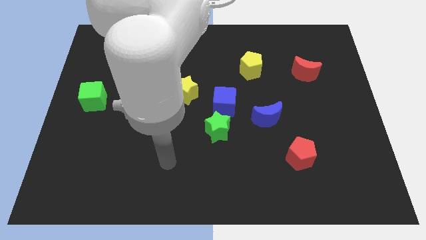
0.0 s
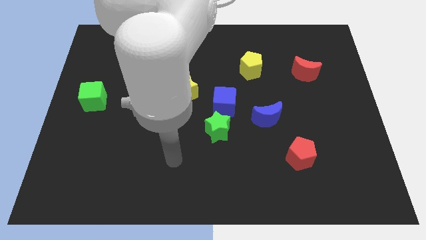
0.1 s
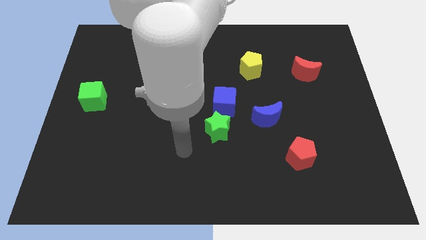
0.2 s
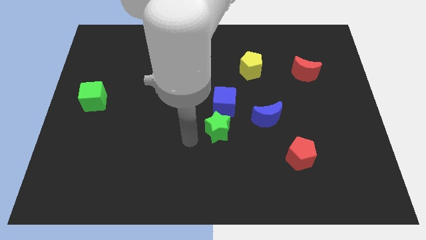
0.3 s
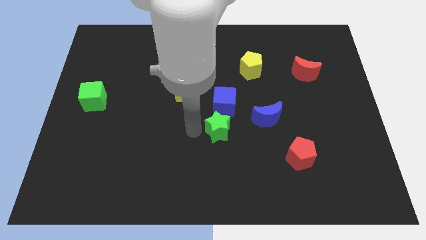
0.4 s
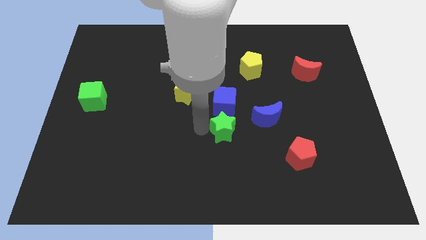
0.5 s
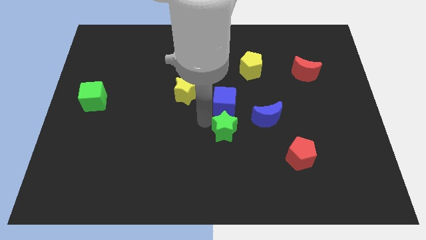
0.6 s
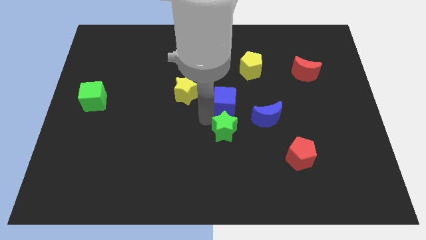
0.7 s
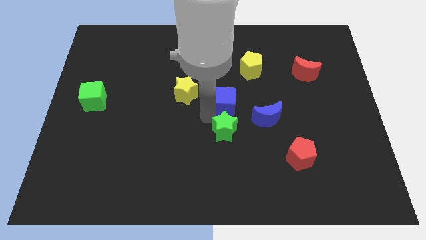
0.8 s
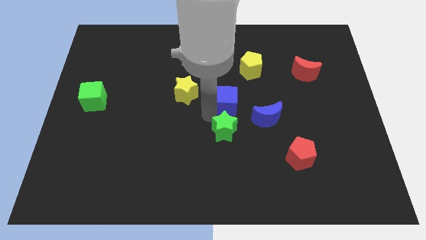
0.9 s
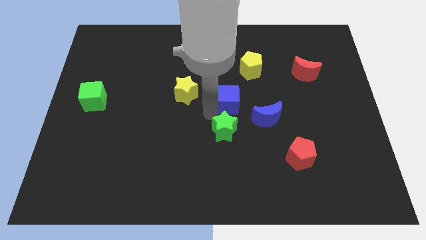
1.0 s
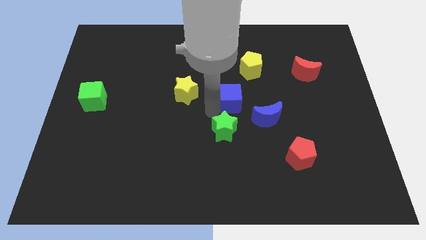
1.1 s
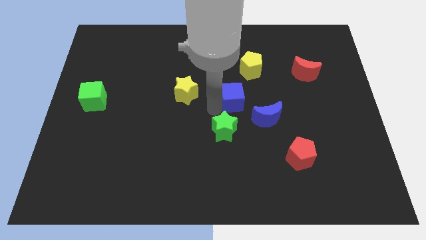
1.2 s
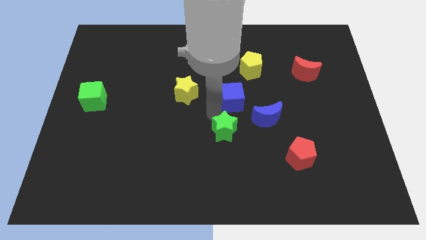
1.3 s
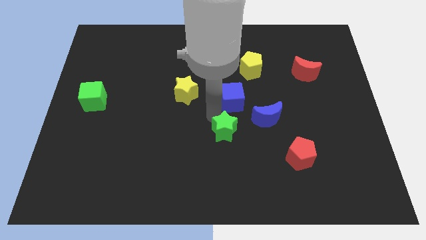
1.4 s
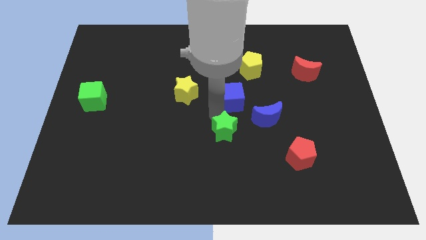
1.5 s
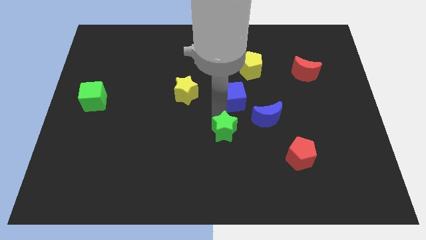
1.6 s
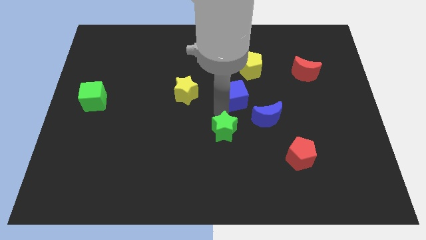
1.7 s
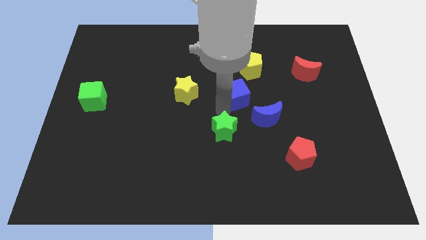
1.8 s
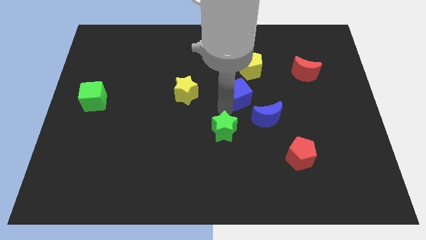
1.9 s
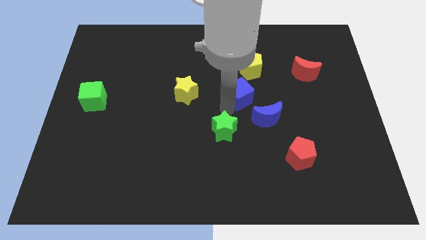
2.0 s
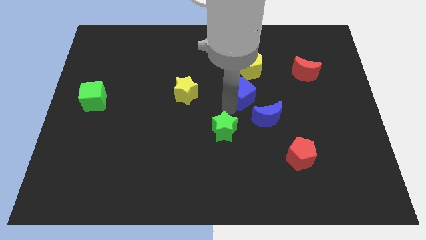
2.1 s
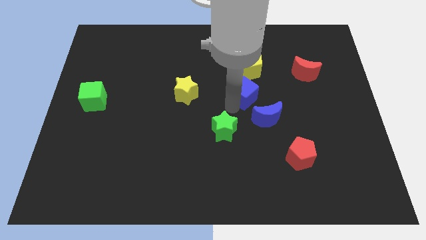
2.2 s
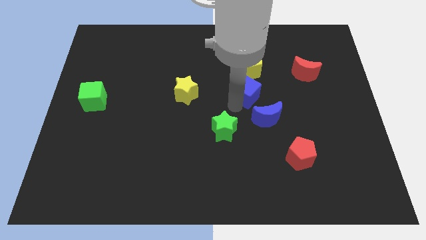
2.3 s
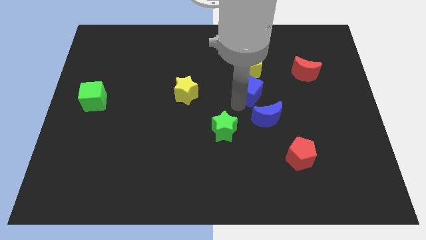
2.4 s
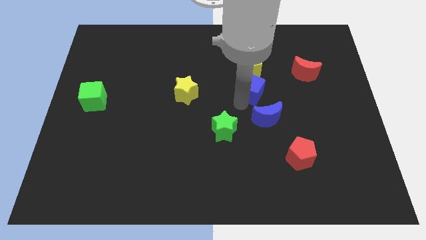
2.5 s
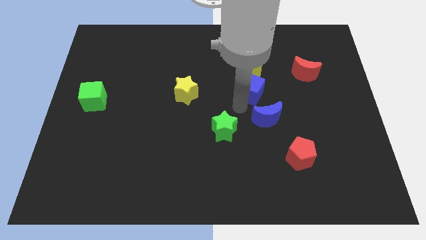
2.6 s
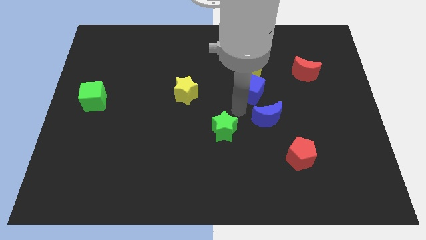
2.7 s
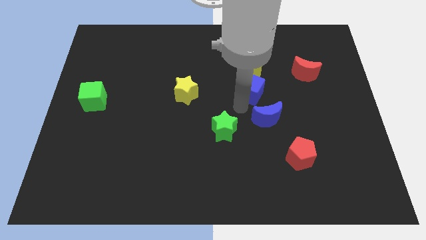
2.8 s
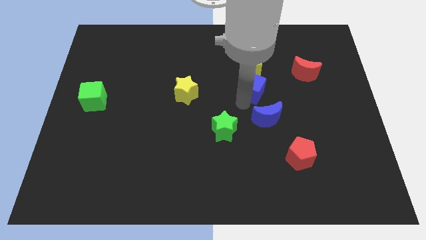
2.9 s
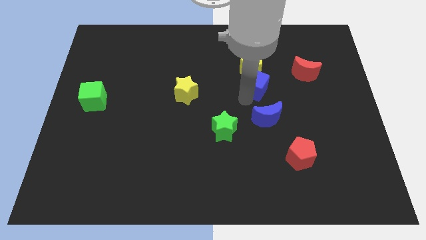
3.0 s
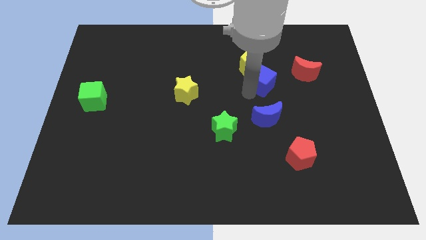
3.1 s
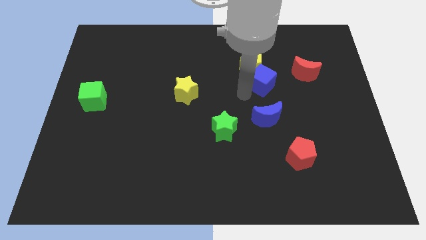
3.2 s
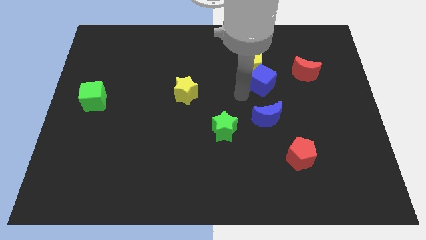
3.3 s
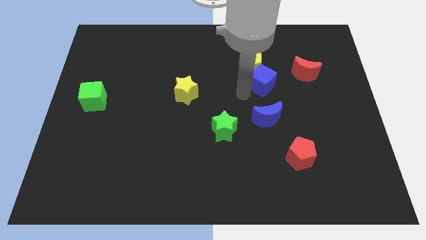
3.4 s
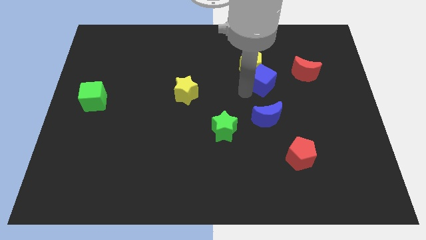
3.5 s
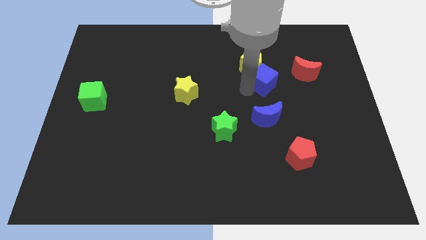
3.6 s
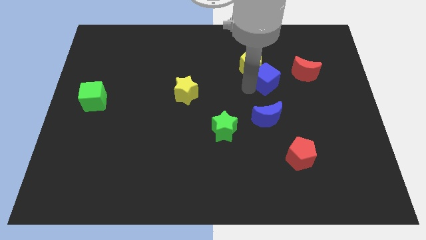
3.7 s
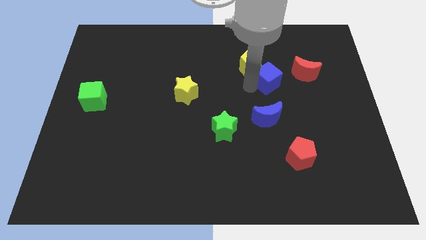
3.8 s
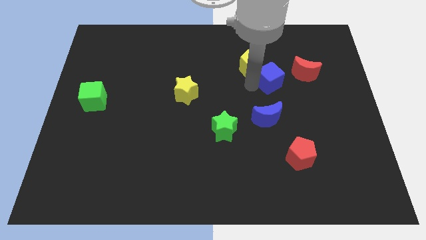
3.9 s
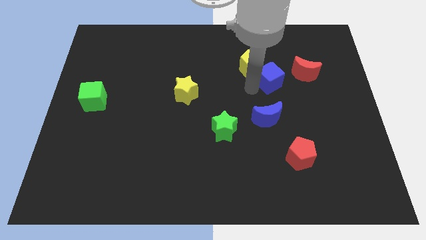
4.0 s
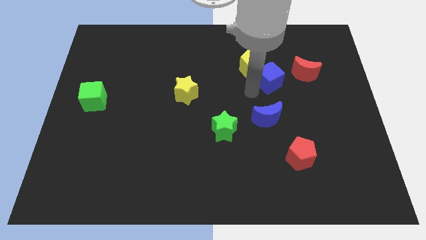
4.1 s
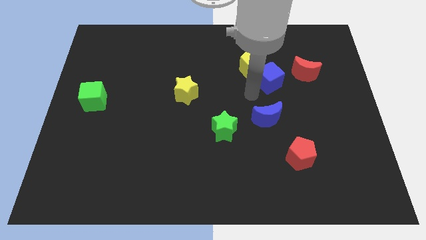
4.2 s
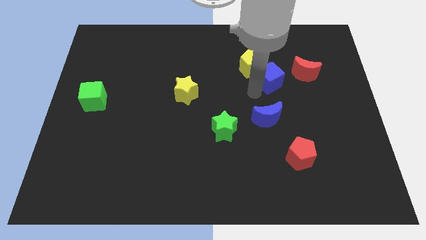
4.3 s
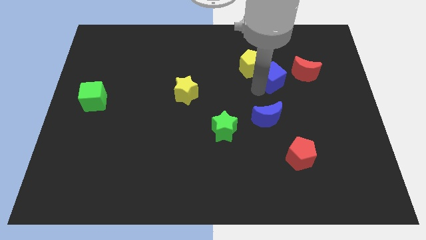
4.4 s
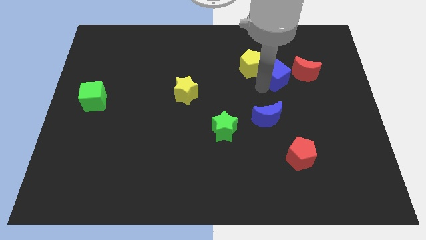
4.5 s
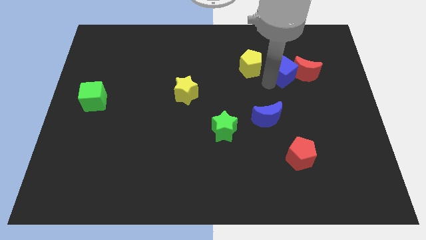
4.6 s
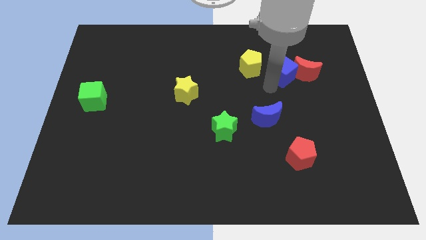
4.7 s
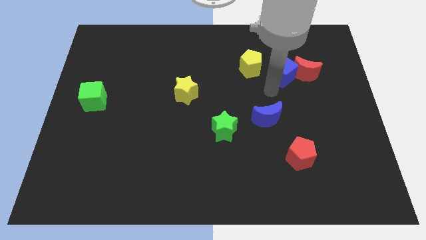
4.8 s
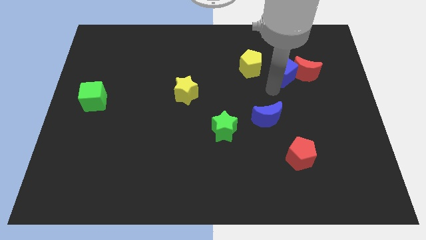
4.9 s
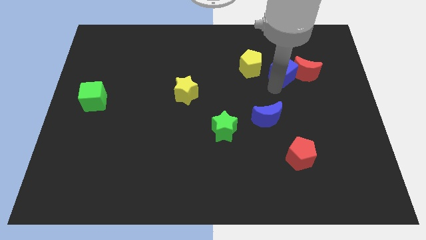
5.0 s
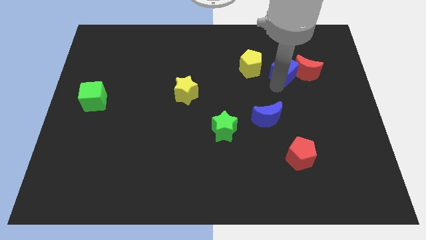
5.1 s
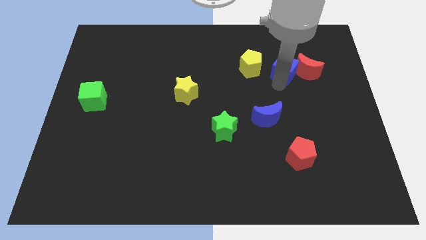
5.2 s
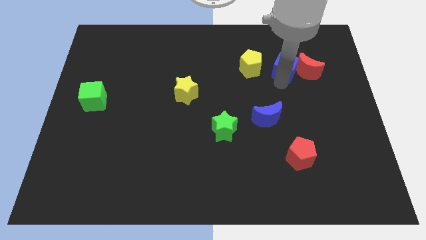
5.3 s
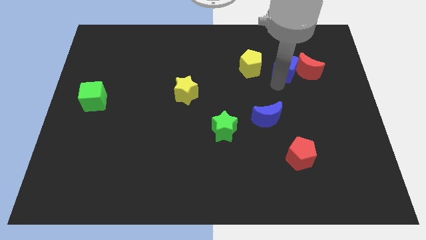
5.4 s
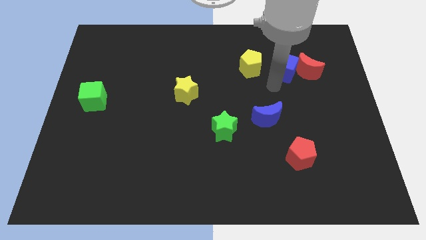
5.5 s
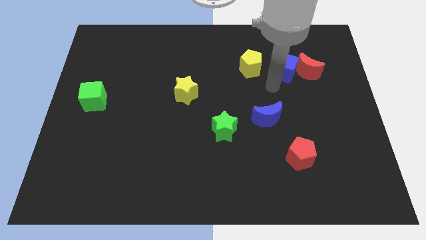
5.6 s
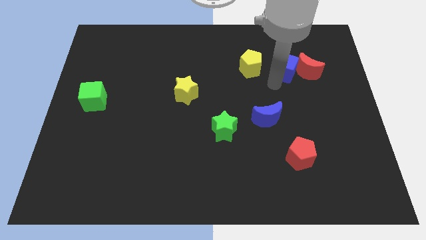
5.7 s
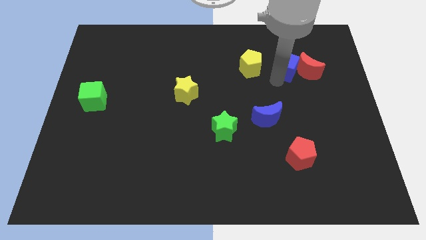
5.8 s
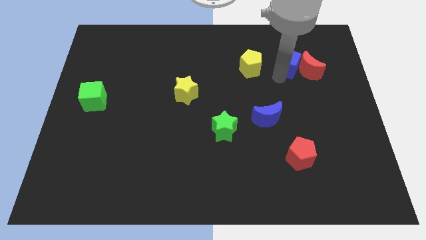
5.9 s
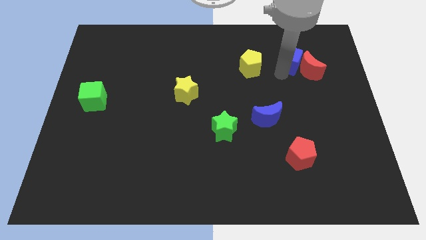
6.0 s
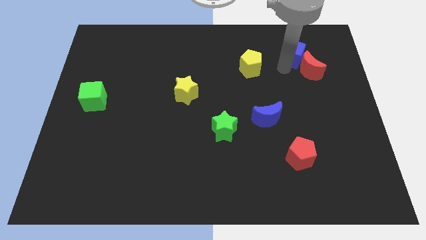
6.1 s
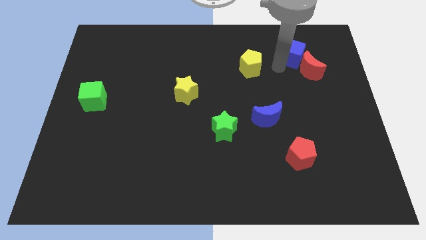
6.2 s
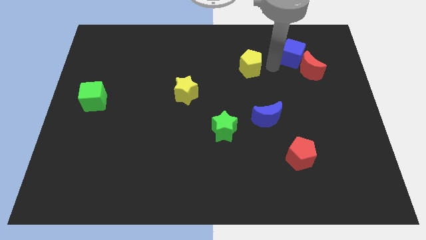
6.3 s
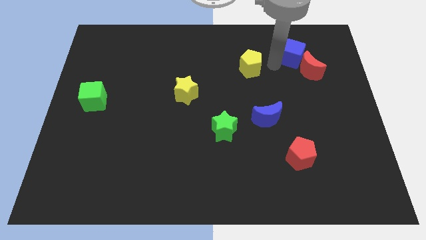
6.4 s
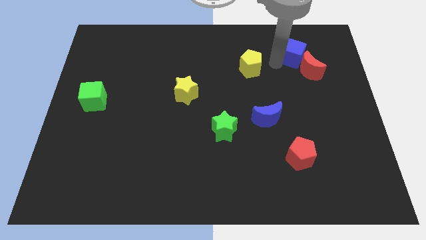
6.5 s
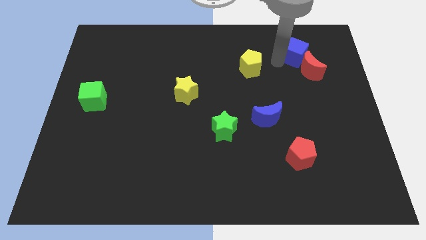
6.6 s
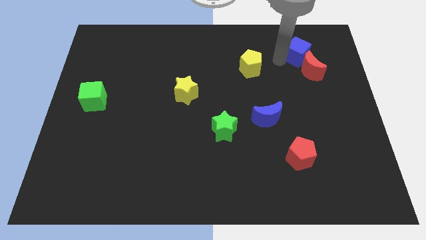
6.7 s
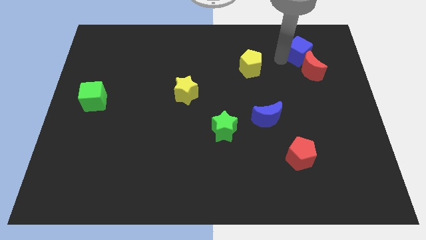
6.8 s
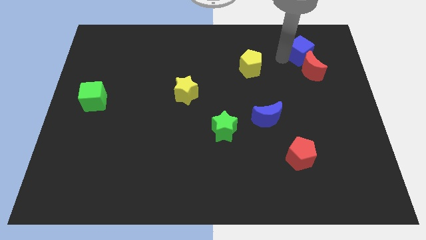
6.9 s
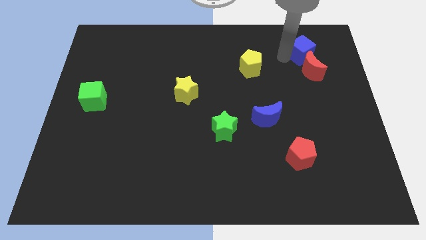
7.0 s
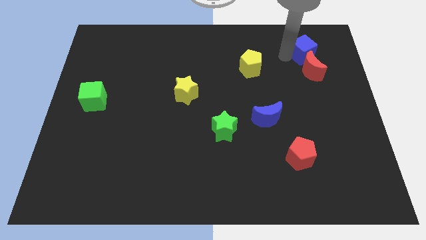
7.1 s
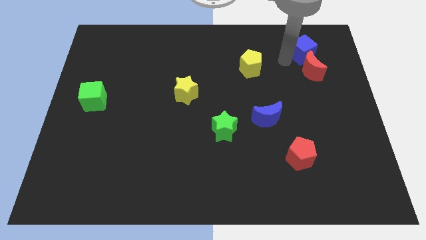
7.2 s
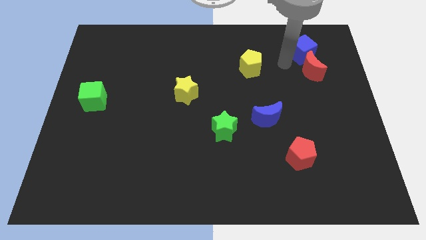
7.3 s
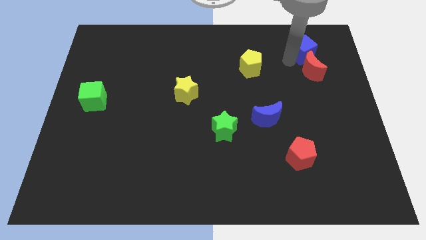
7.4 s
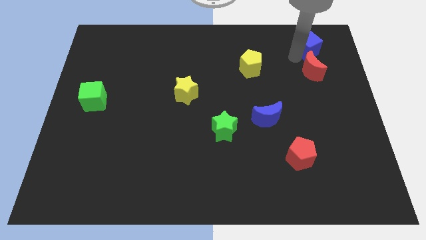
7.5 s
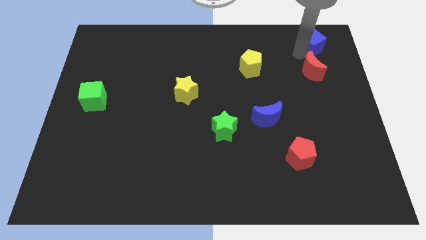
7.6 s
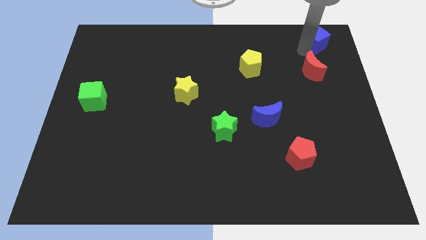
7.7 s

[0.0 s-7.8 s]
put the blue cube to the upper right corner
